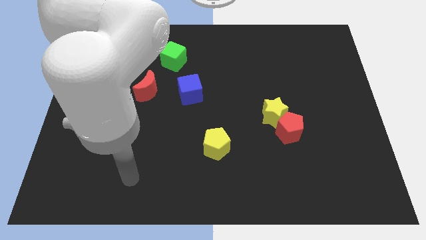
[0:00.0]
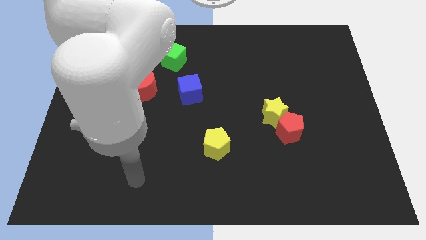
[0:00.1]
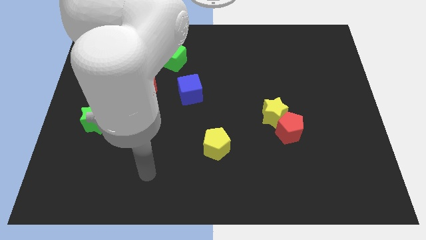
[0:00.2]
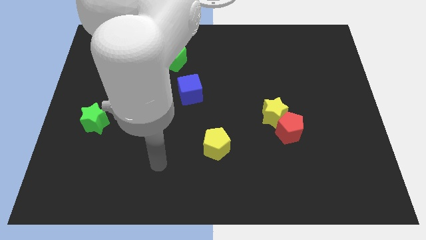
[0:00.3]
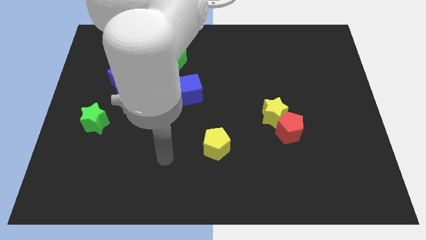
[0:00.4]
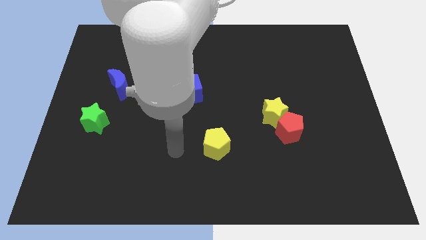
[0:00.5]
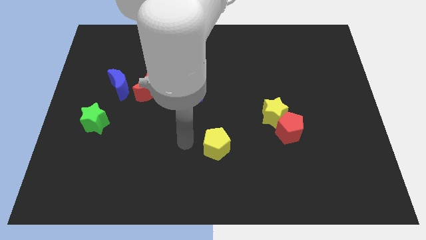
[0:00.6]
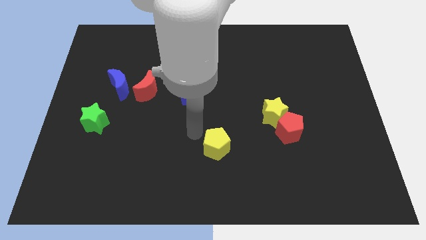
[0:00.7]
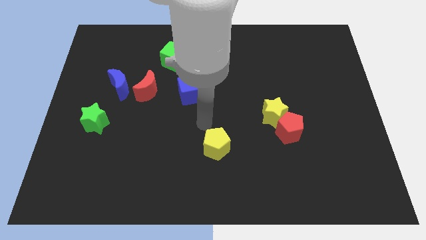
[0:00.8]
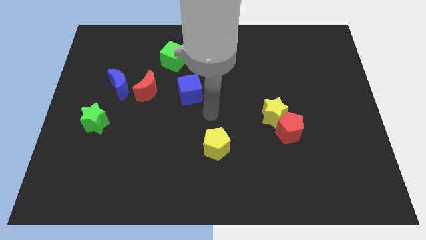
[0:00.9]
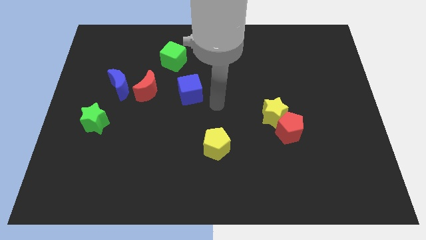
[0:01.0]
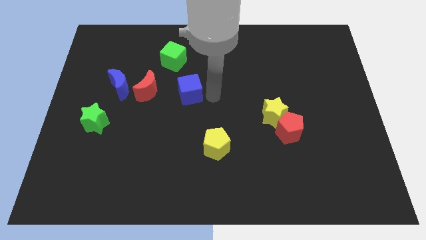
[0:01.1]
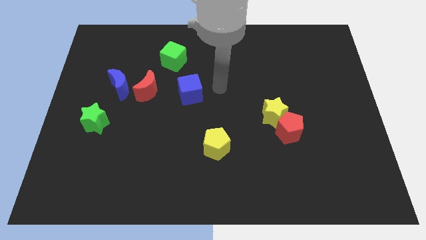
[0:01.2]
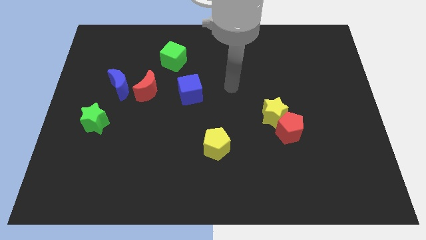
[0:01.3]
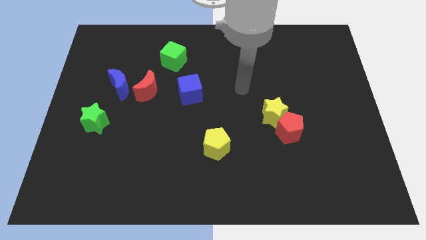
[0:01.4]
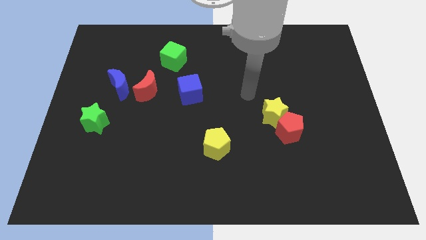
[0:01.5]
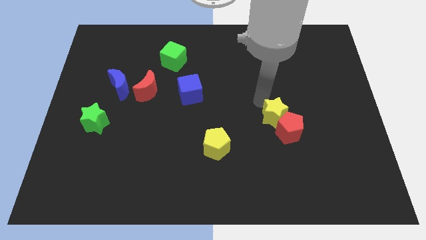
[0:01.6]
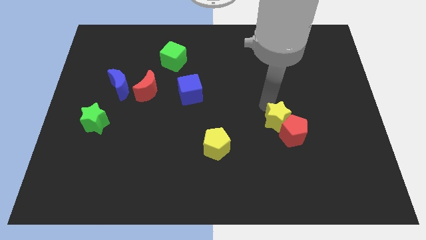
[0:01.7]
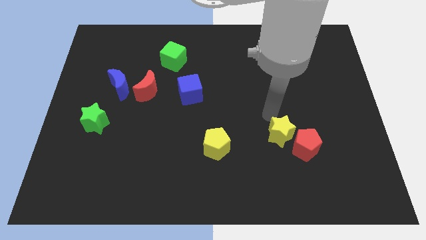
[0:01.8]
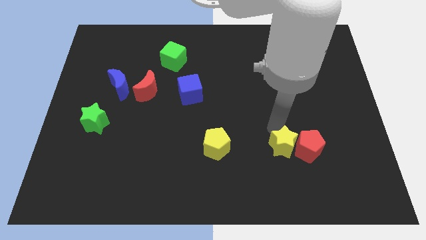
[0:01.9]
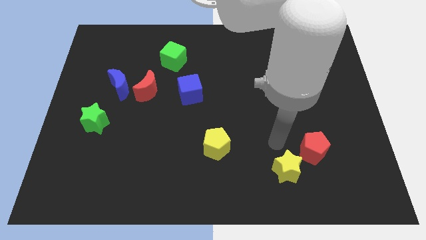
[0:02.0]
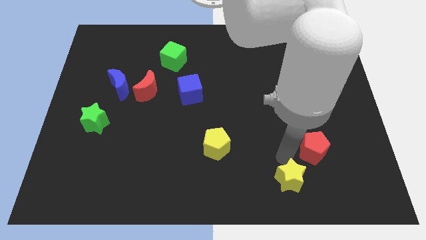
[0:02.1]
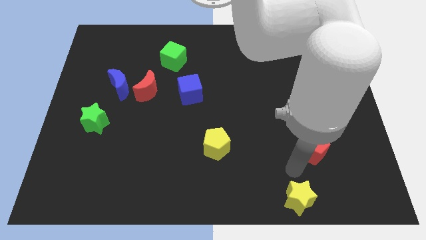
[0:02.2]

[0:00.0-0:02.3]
pull the red pentagon apart from the yellow star

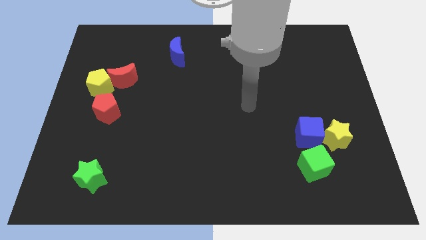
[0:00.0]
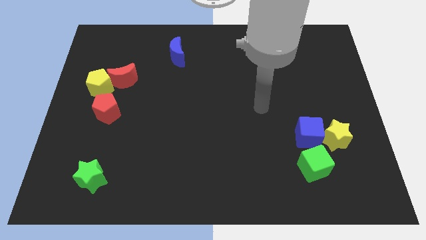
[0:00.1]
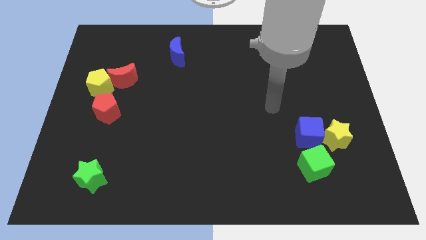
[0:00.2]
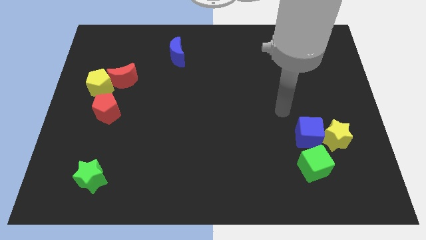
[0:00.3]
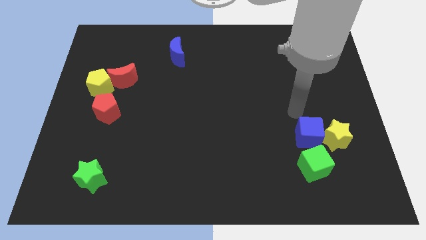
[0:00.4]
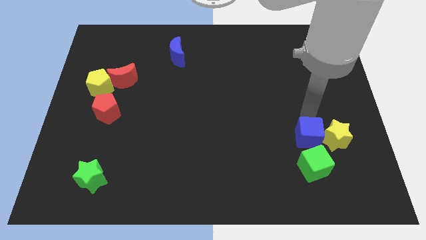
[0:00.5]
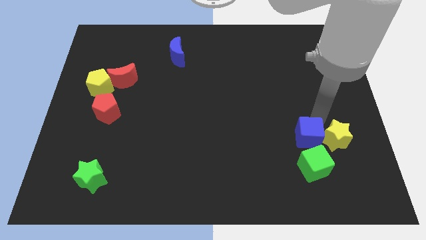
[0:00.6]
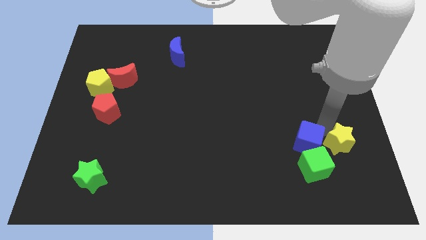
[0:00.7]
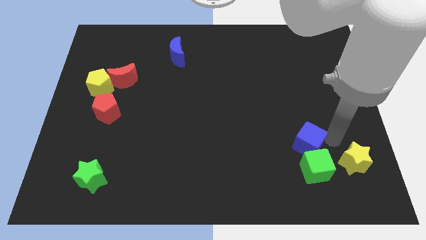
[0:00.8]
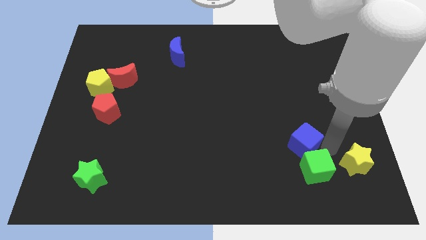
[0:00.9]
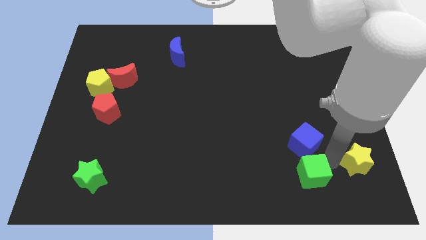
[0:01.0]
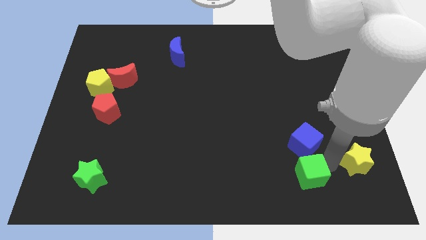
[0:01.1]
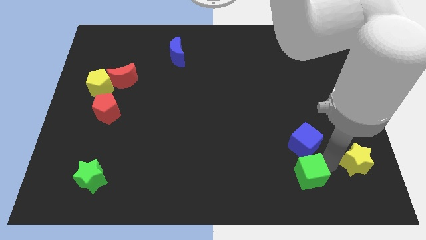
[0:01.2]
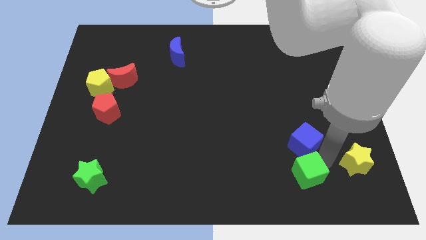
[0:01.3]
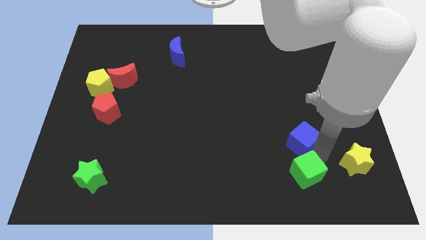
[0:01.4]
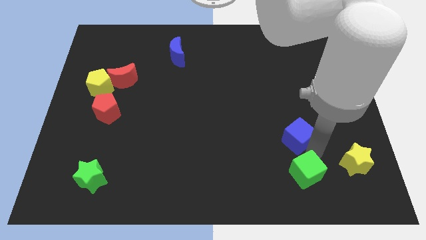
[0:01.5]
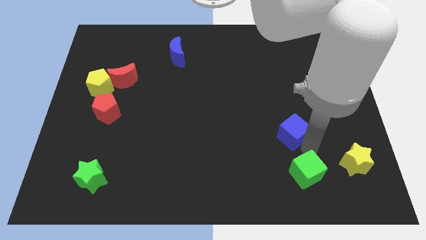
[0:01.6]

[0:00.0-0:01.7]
separate the blue cube from the yellow star and green cube

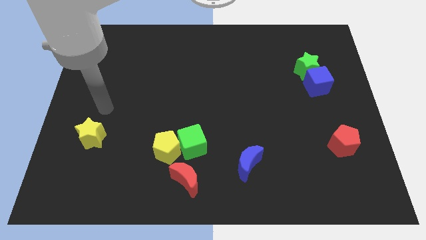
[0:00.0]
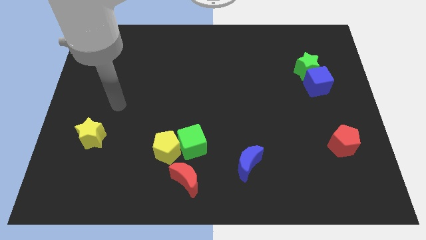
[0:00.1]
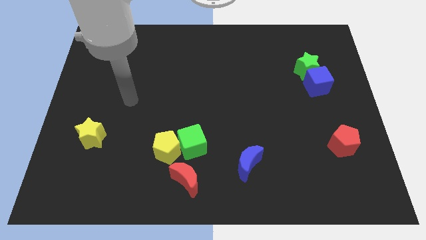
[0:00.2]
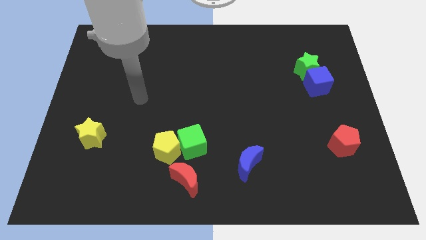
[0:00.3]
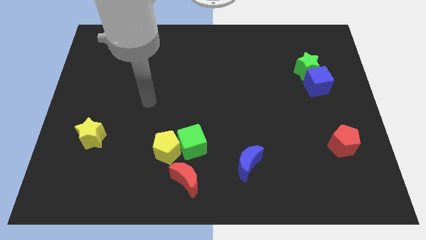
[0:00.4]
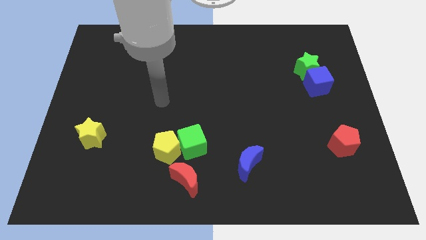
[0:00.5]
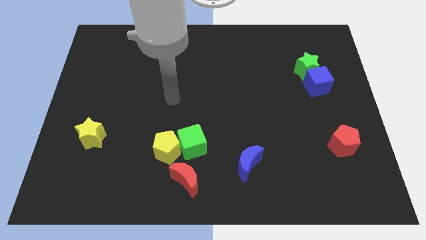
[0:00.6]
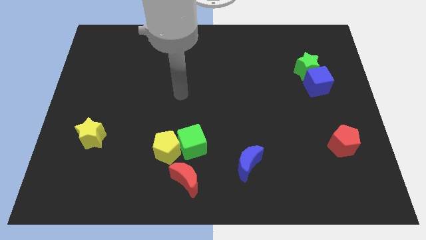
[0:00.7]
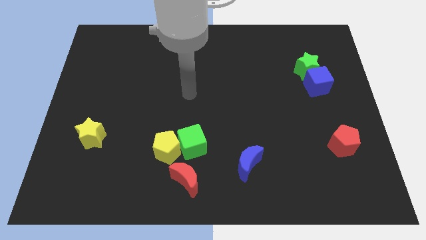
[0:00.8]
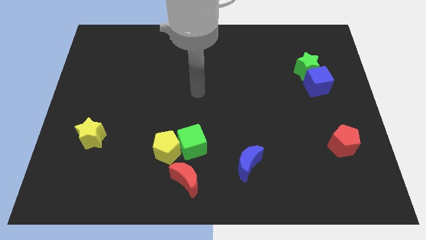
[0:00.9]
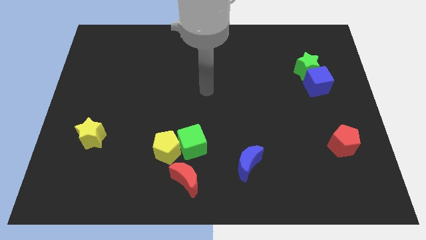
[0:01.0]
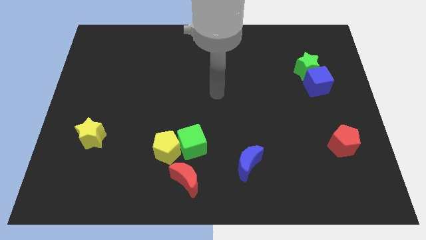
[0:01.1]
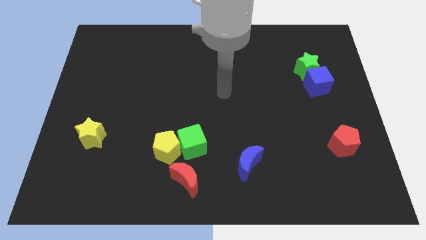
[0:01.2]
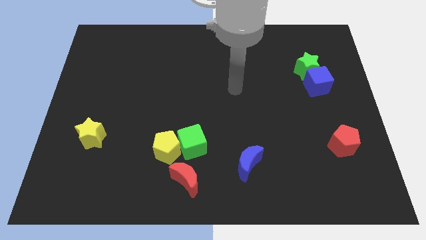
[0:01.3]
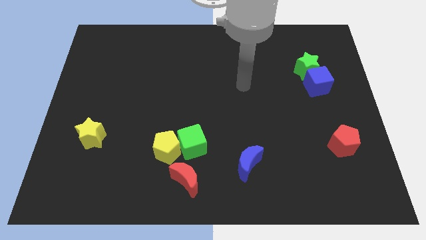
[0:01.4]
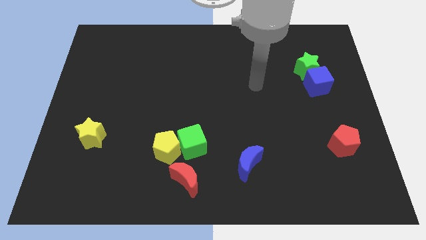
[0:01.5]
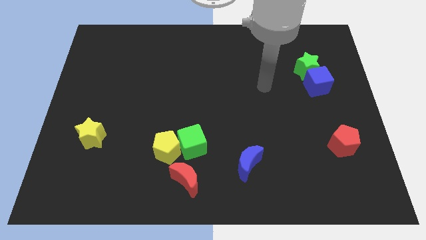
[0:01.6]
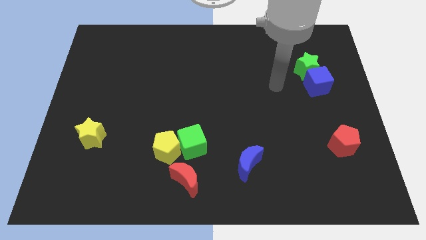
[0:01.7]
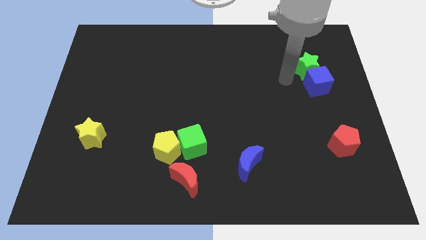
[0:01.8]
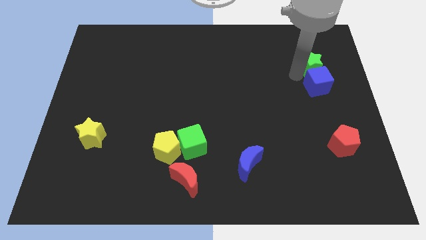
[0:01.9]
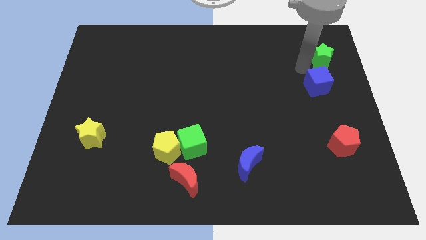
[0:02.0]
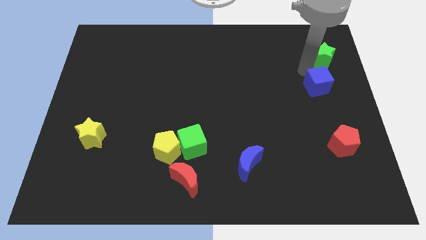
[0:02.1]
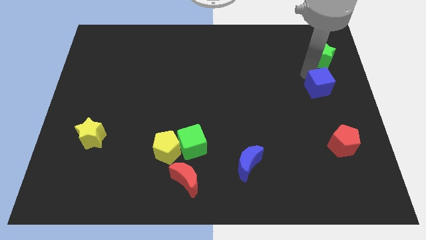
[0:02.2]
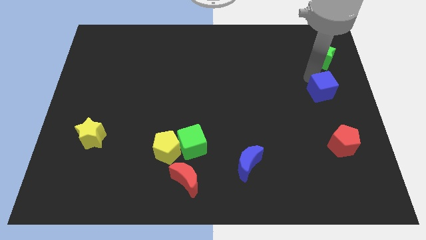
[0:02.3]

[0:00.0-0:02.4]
pull the blue cube apart from the green star

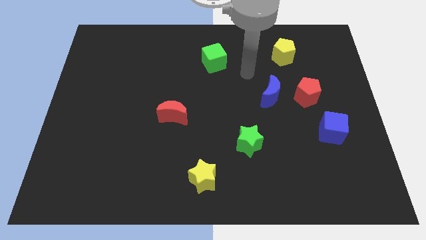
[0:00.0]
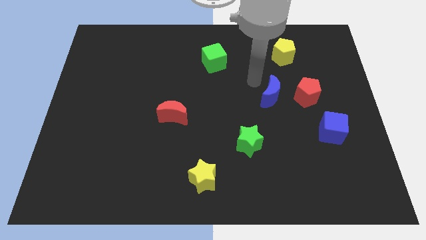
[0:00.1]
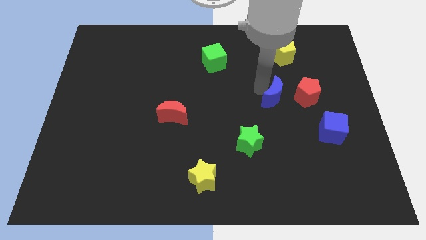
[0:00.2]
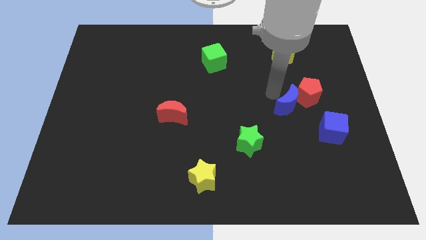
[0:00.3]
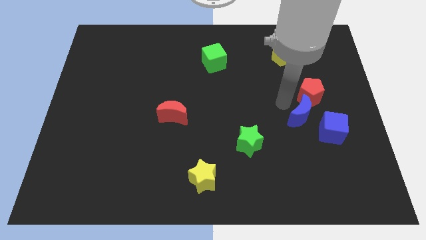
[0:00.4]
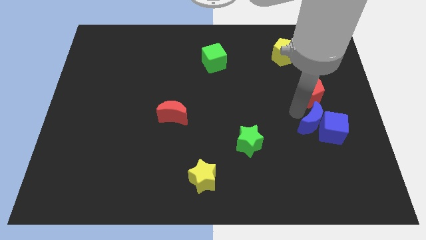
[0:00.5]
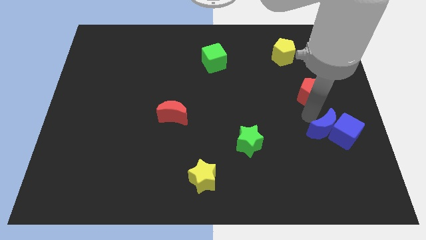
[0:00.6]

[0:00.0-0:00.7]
move the red pentagon away from the blue moon

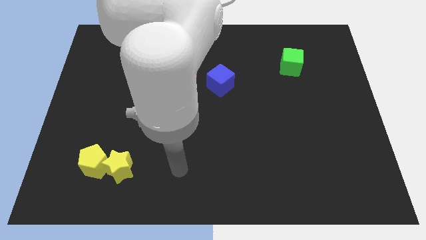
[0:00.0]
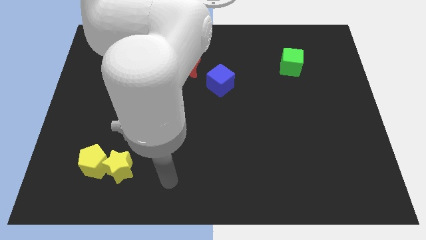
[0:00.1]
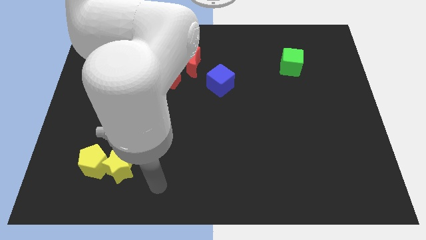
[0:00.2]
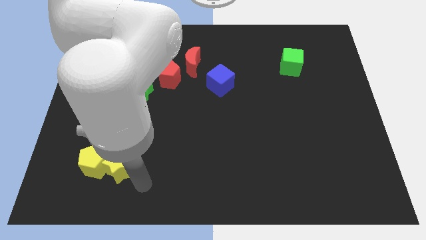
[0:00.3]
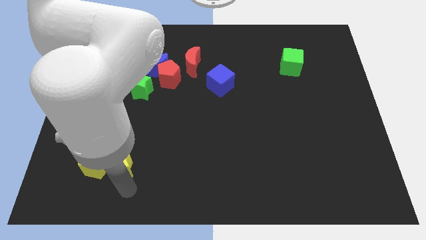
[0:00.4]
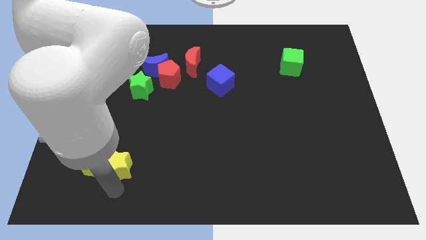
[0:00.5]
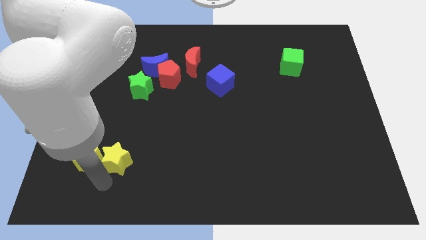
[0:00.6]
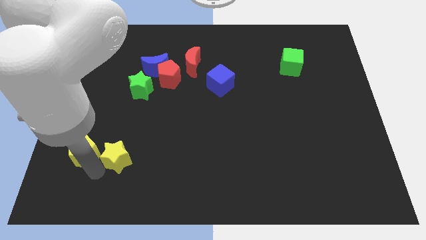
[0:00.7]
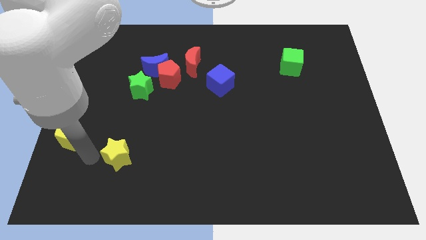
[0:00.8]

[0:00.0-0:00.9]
separate the yellow star from the yellow pentagon

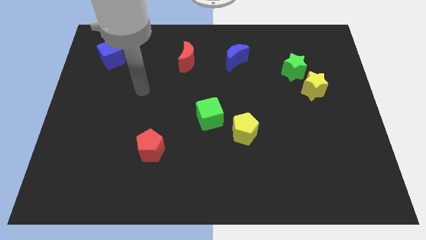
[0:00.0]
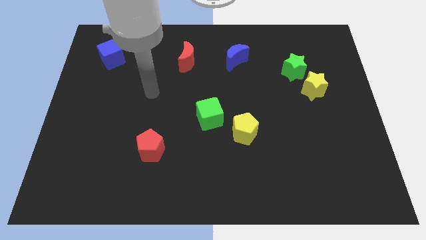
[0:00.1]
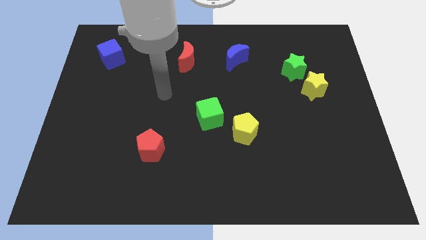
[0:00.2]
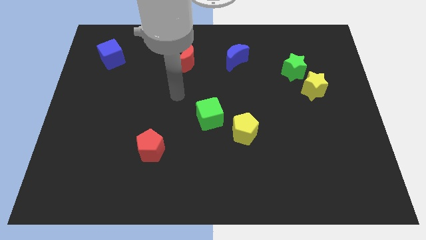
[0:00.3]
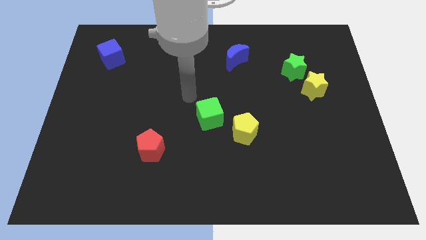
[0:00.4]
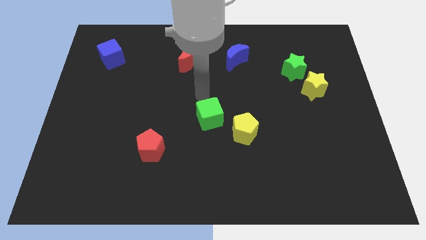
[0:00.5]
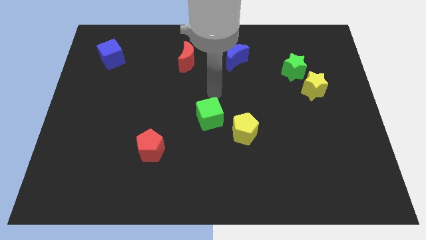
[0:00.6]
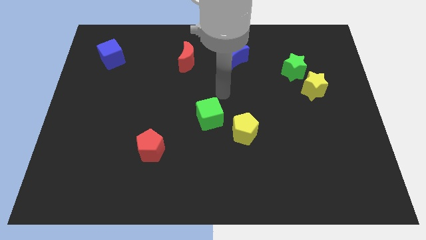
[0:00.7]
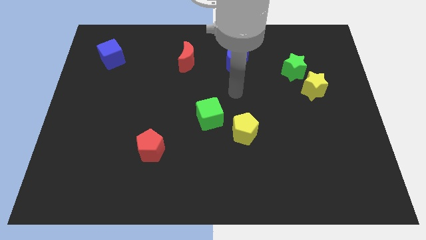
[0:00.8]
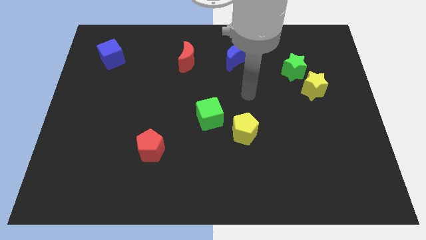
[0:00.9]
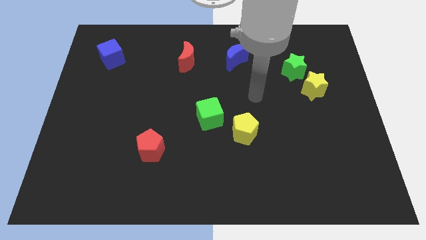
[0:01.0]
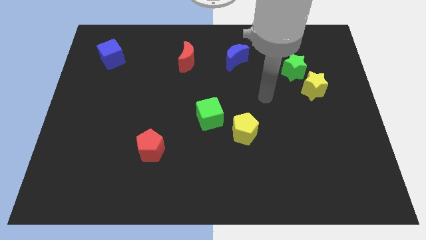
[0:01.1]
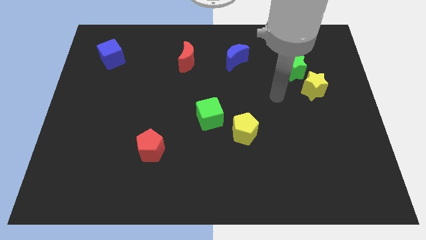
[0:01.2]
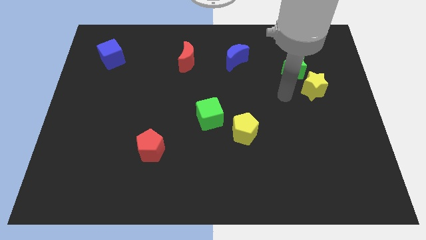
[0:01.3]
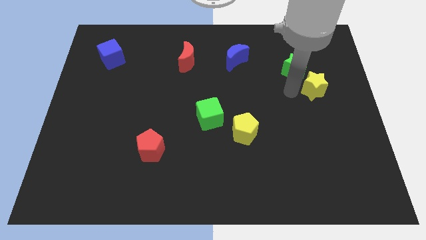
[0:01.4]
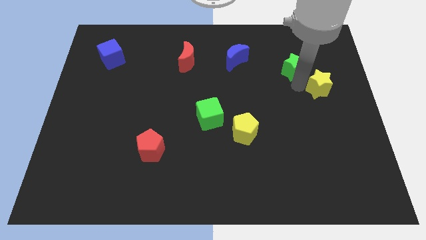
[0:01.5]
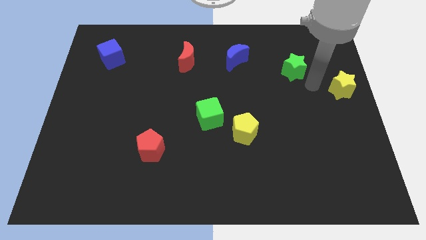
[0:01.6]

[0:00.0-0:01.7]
pull the green star apart from the yellow star
